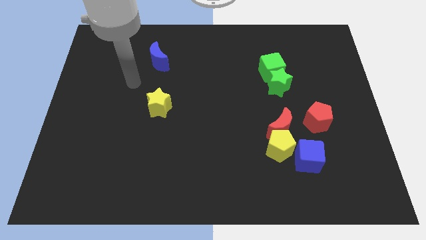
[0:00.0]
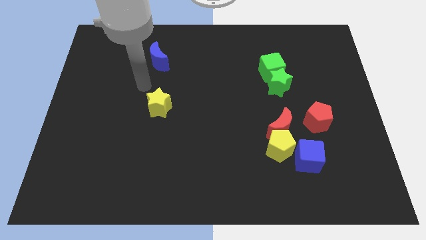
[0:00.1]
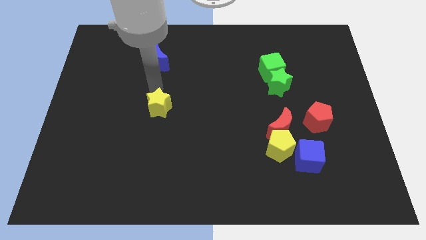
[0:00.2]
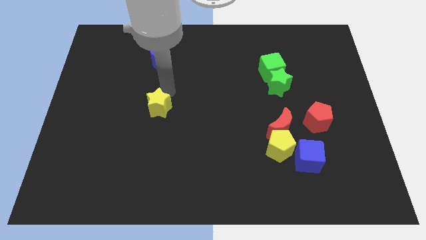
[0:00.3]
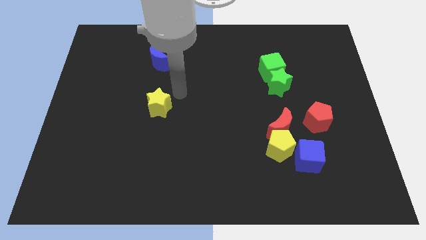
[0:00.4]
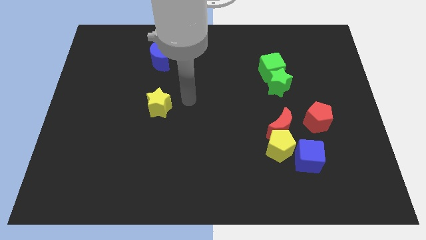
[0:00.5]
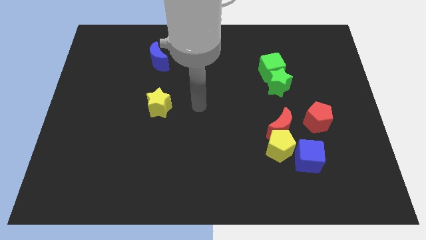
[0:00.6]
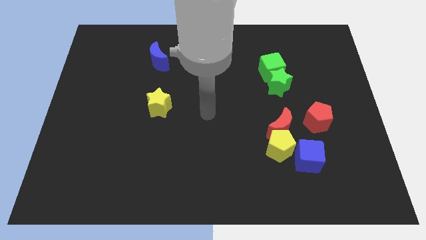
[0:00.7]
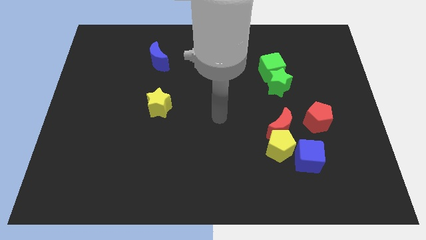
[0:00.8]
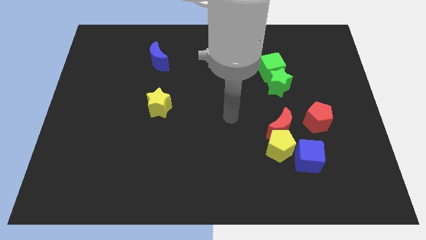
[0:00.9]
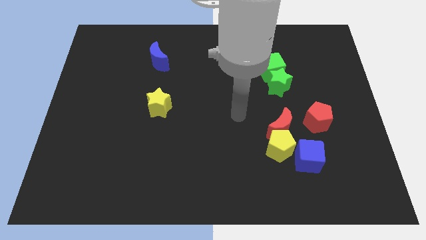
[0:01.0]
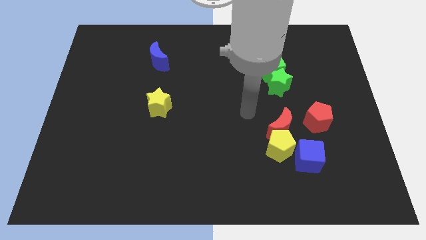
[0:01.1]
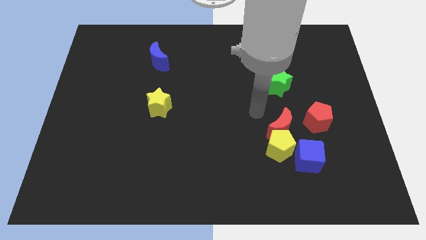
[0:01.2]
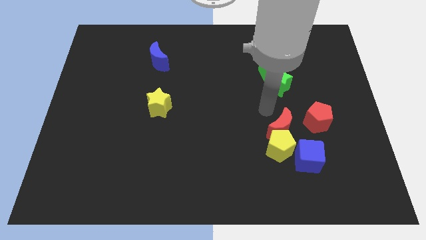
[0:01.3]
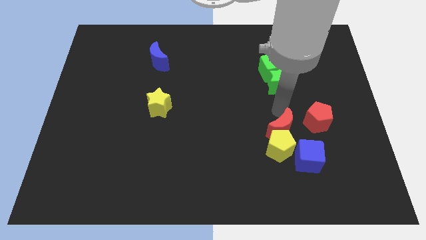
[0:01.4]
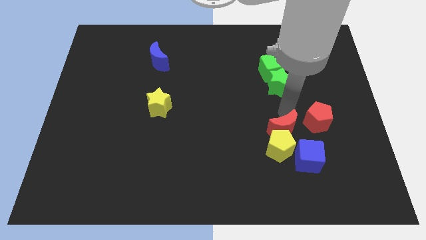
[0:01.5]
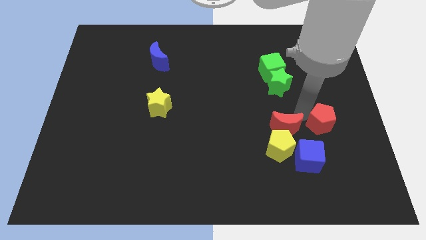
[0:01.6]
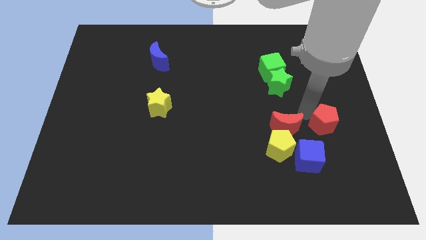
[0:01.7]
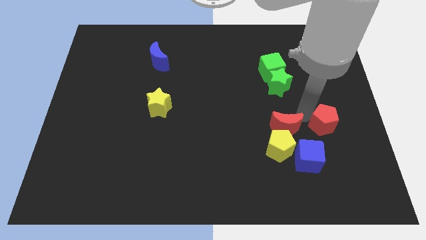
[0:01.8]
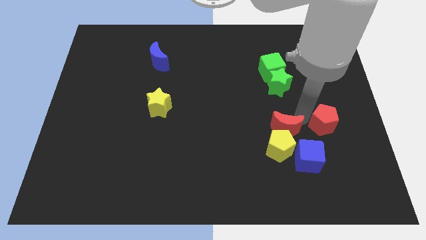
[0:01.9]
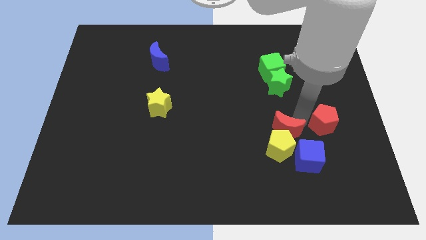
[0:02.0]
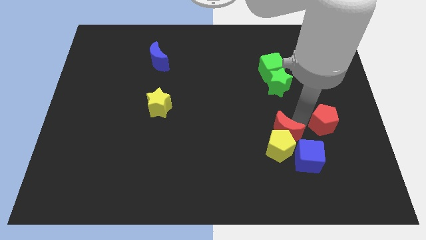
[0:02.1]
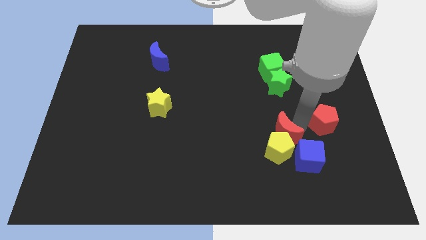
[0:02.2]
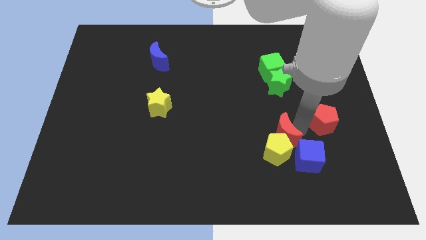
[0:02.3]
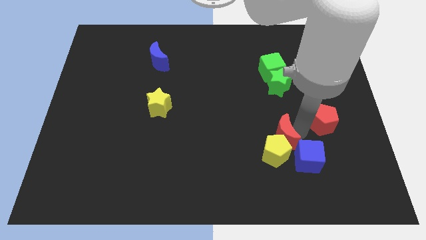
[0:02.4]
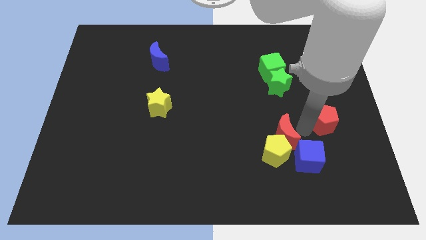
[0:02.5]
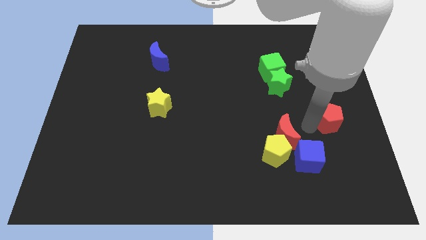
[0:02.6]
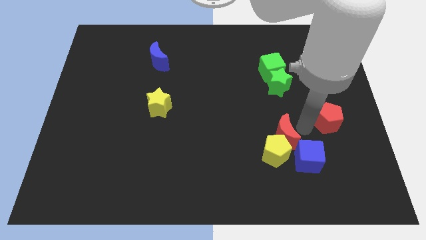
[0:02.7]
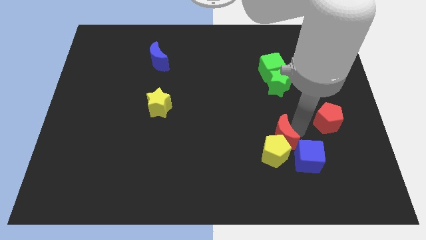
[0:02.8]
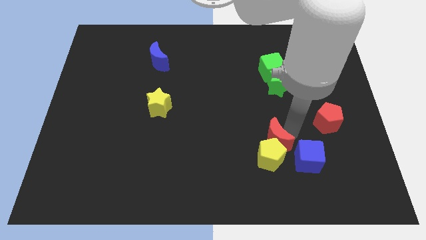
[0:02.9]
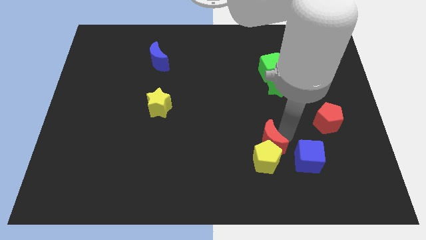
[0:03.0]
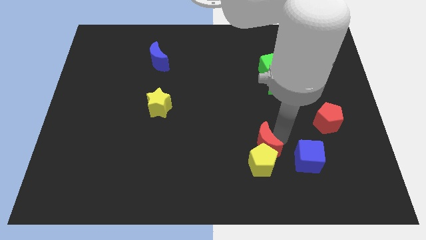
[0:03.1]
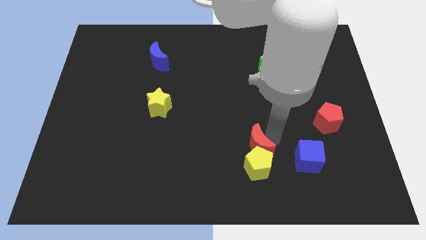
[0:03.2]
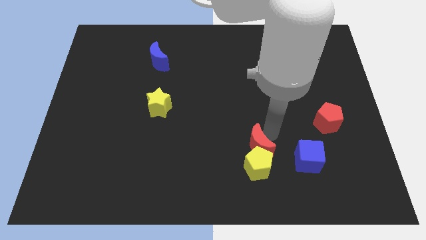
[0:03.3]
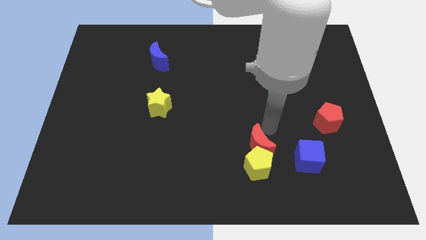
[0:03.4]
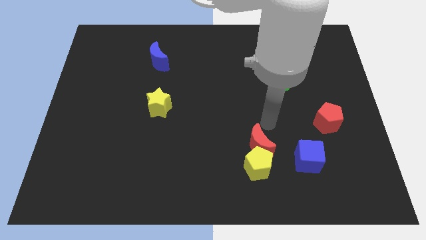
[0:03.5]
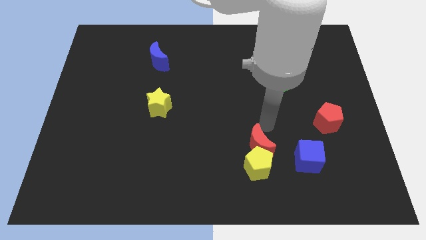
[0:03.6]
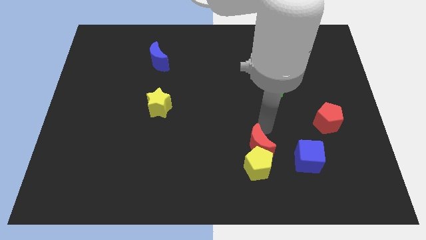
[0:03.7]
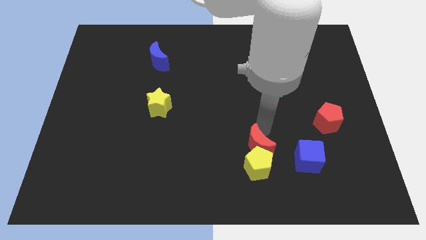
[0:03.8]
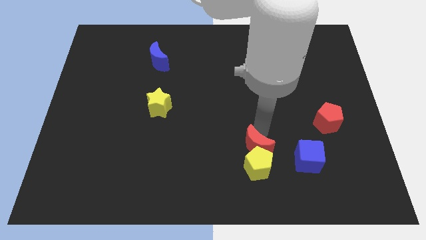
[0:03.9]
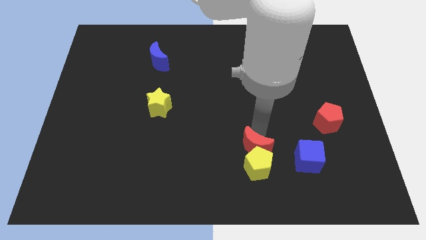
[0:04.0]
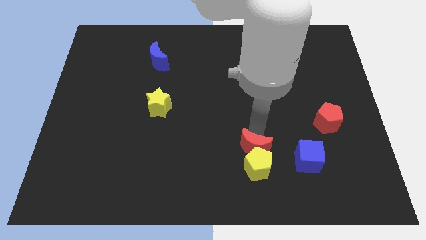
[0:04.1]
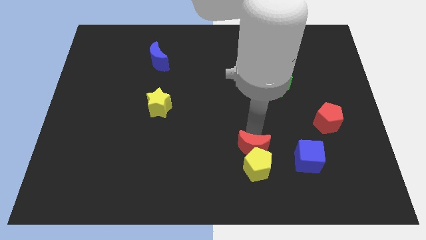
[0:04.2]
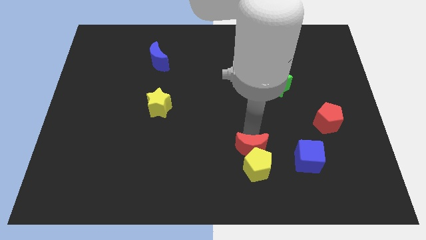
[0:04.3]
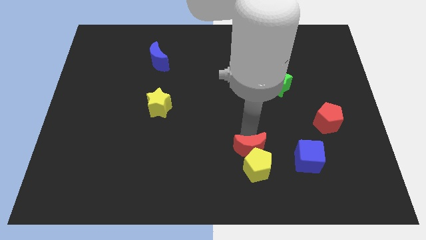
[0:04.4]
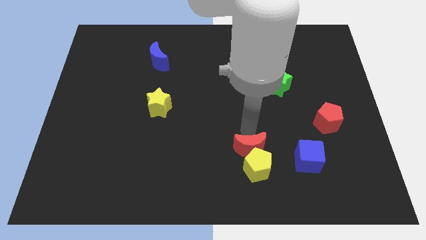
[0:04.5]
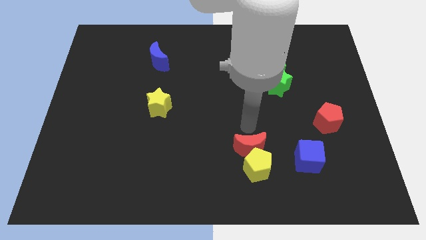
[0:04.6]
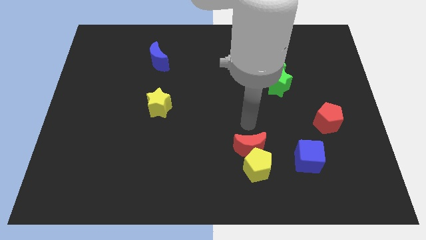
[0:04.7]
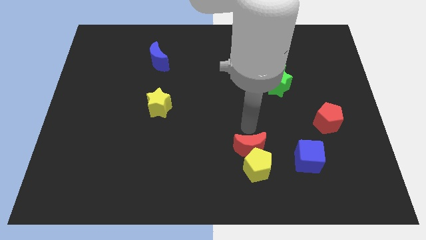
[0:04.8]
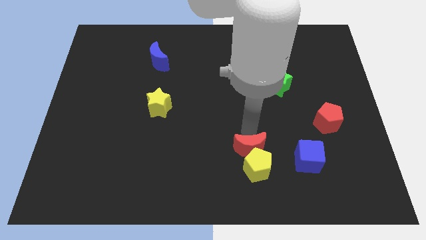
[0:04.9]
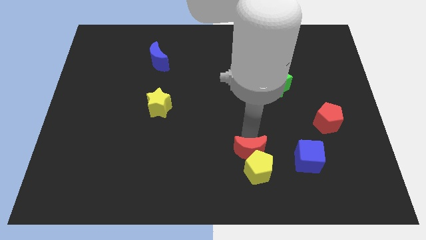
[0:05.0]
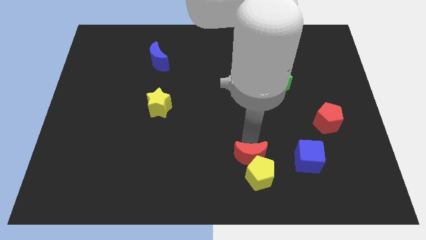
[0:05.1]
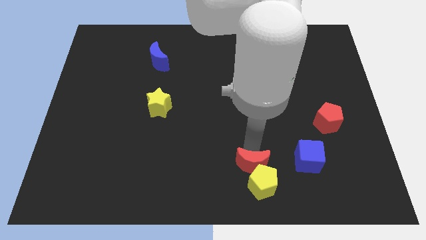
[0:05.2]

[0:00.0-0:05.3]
put the red moon to the bottom side
